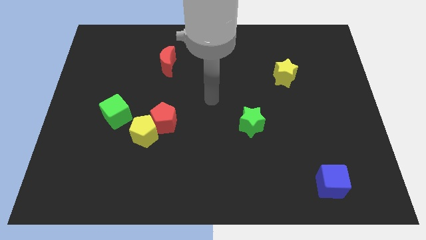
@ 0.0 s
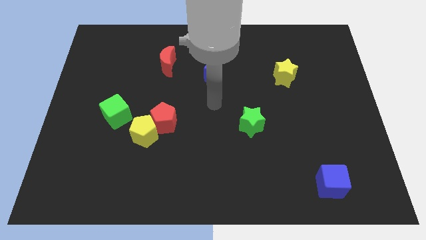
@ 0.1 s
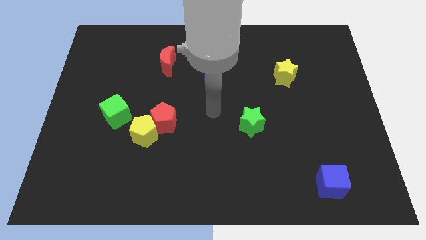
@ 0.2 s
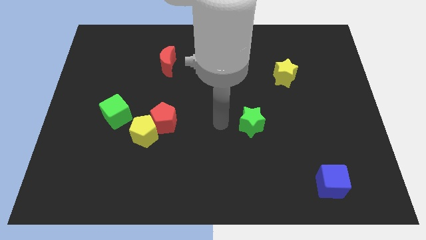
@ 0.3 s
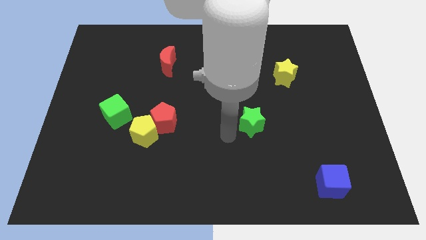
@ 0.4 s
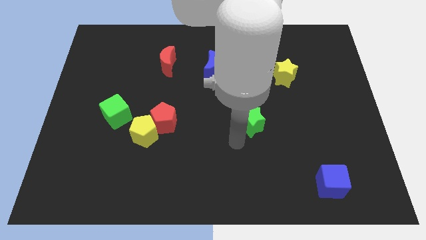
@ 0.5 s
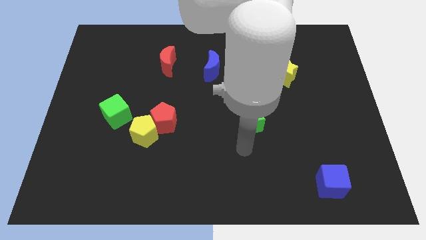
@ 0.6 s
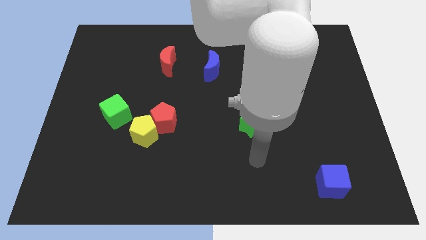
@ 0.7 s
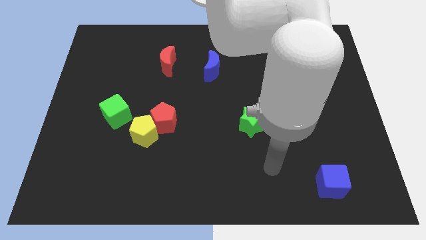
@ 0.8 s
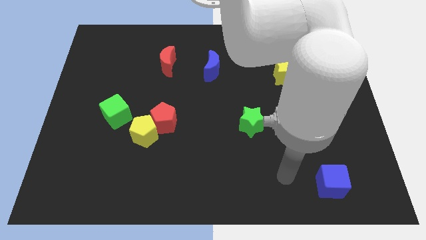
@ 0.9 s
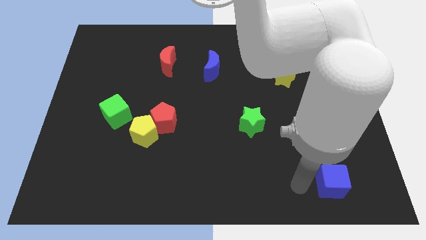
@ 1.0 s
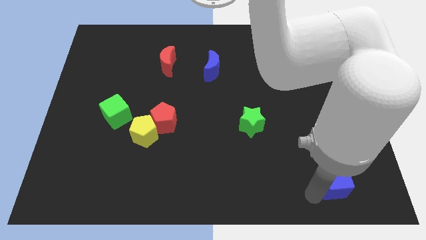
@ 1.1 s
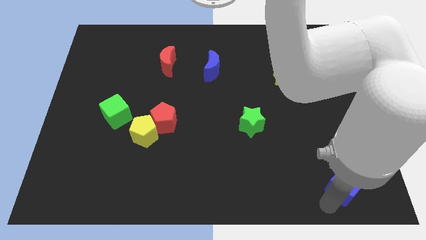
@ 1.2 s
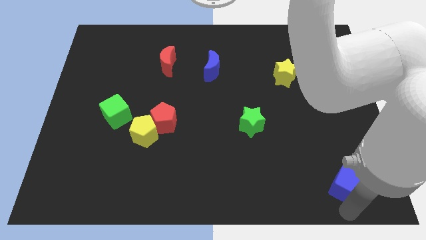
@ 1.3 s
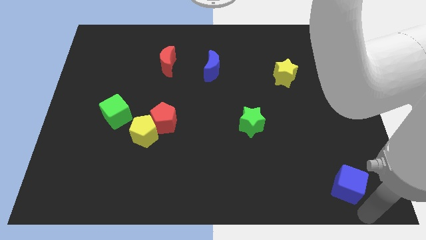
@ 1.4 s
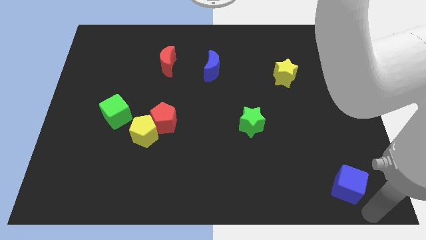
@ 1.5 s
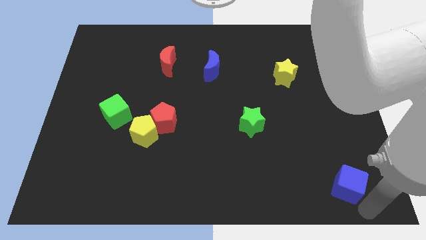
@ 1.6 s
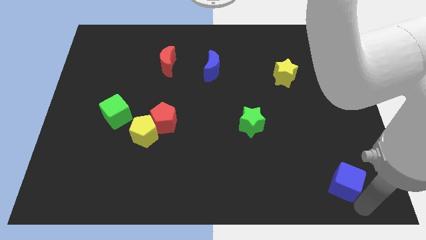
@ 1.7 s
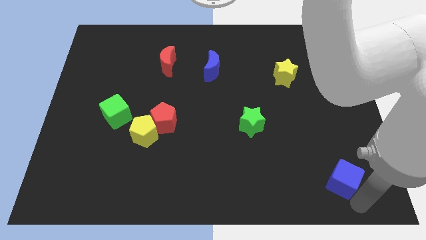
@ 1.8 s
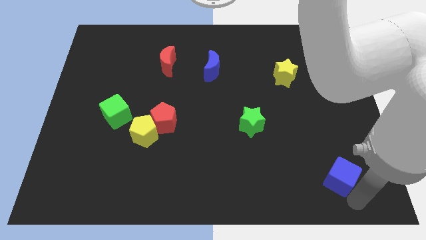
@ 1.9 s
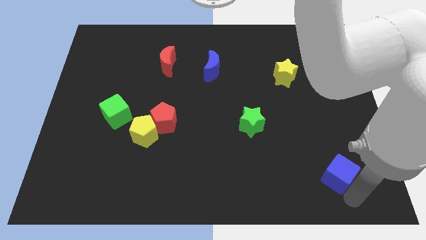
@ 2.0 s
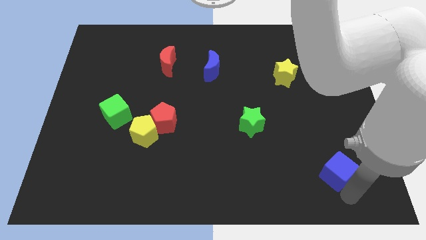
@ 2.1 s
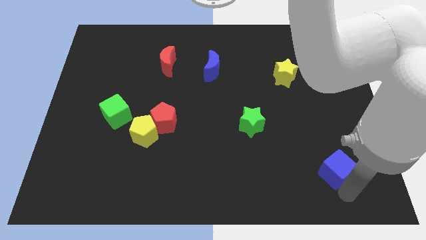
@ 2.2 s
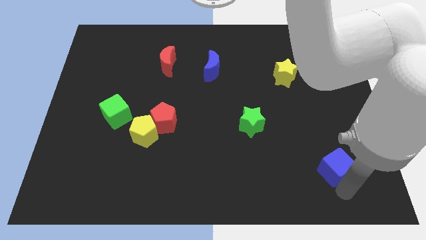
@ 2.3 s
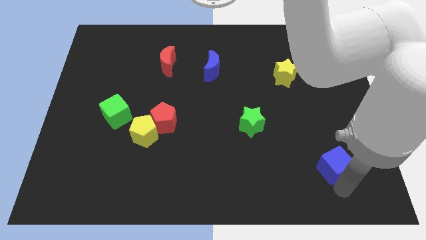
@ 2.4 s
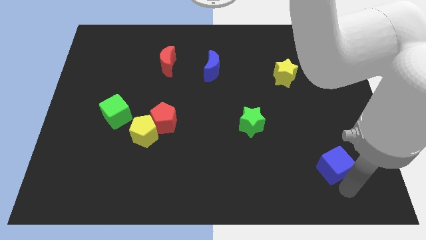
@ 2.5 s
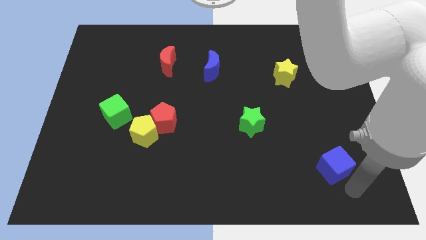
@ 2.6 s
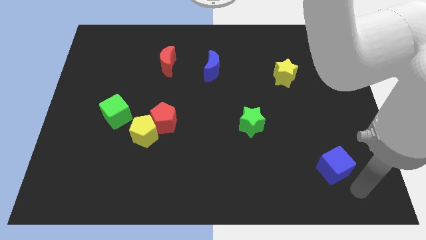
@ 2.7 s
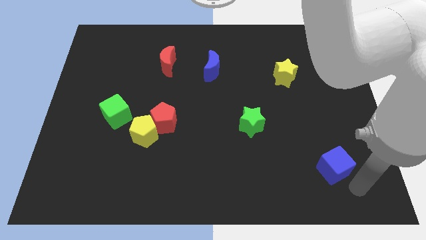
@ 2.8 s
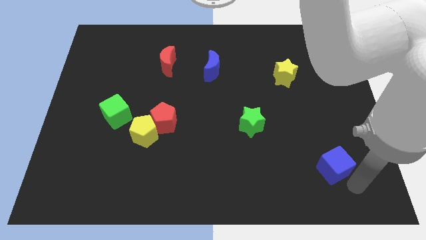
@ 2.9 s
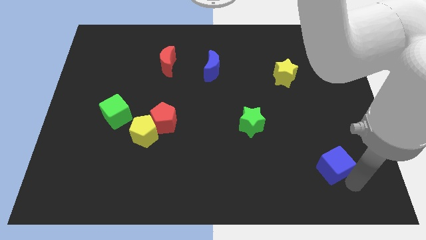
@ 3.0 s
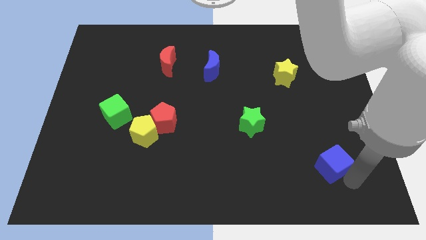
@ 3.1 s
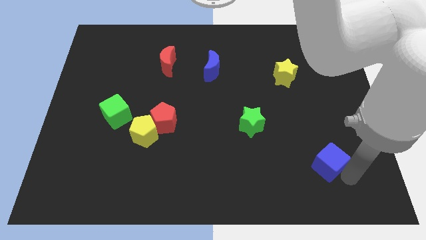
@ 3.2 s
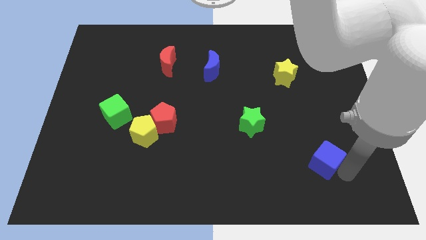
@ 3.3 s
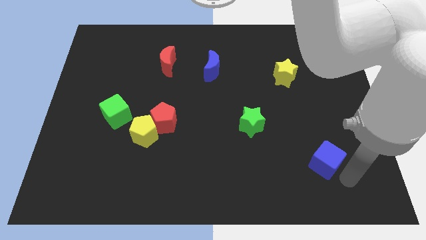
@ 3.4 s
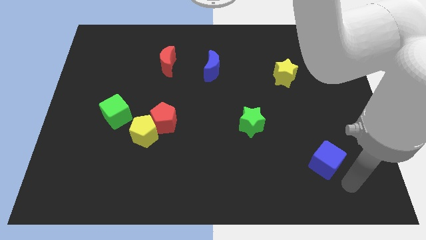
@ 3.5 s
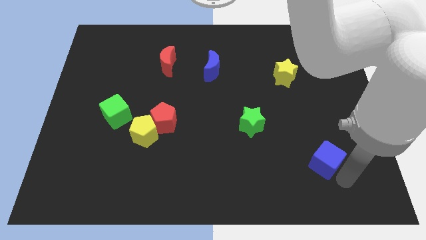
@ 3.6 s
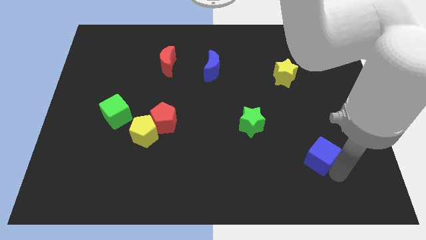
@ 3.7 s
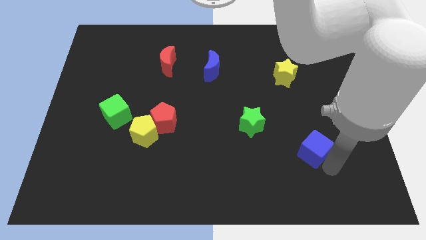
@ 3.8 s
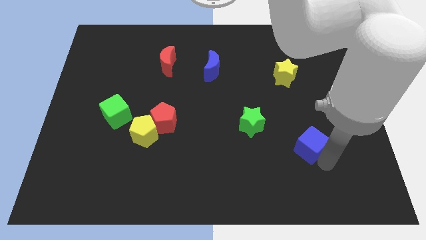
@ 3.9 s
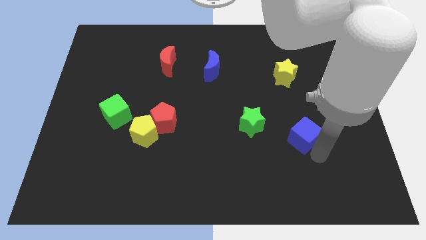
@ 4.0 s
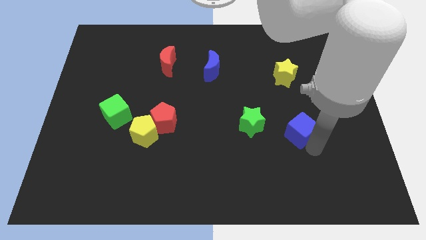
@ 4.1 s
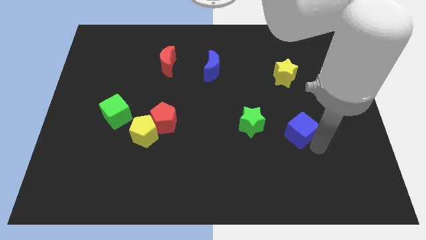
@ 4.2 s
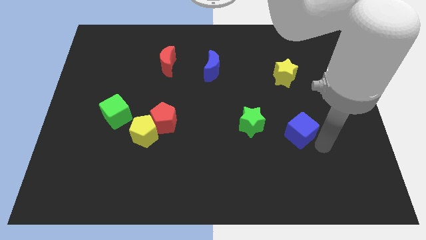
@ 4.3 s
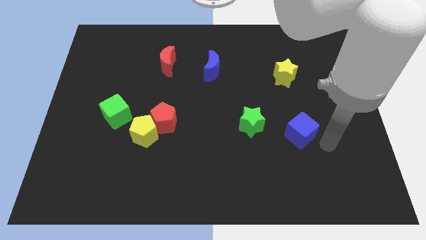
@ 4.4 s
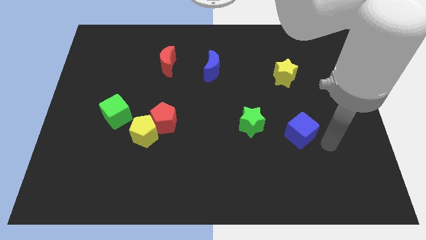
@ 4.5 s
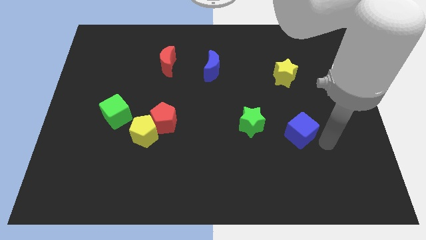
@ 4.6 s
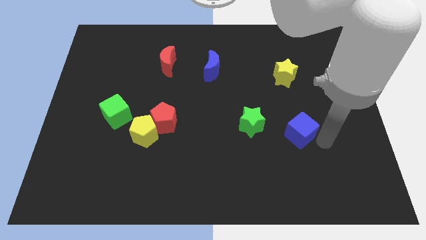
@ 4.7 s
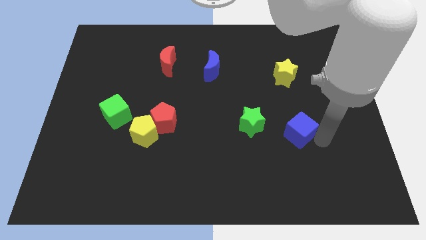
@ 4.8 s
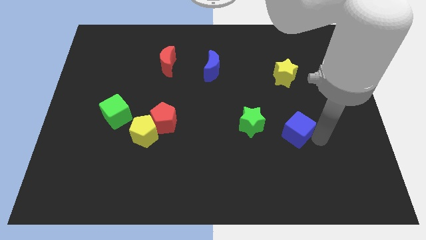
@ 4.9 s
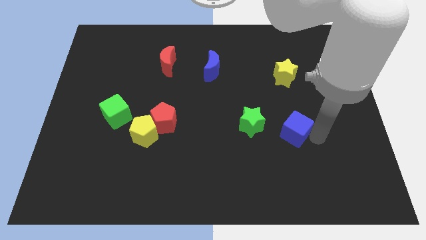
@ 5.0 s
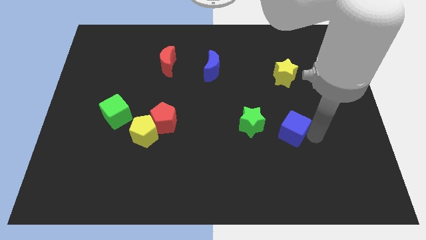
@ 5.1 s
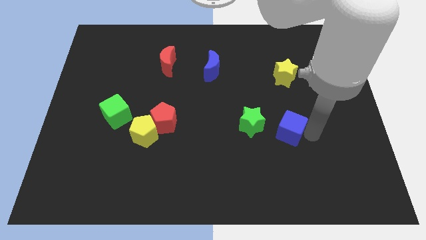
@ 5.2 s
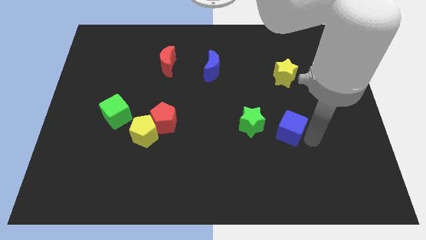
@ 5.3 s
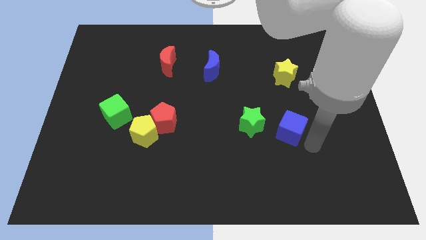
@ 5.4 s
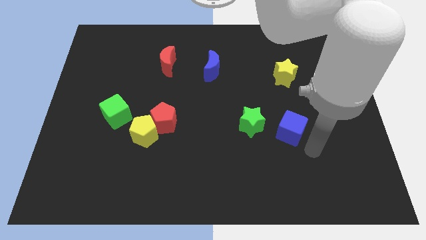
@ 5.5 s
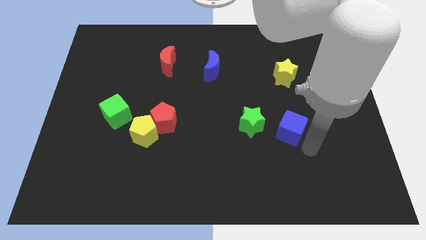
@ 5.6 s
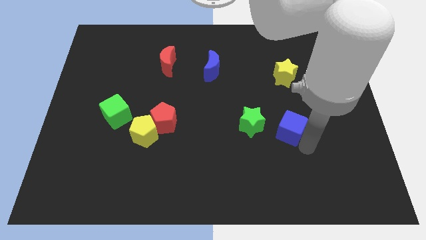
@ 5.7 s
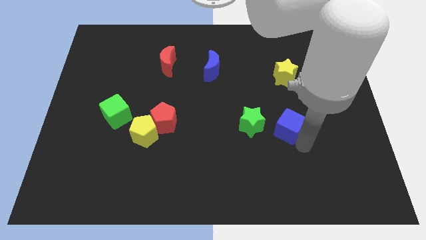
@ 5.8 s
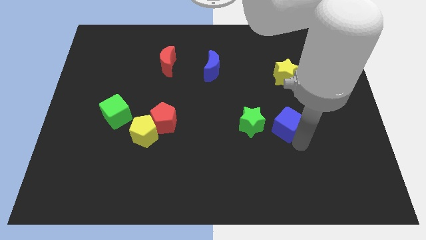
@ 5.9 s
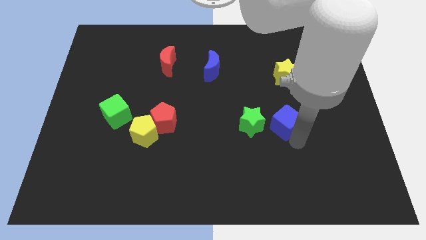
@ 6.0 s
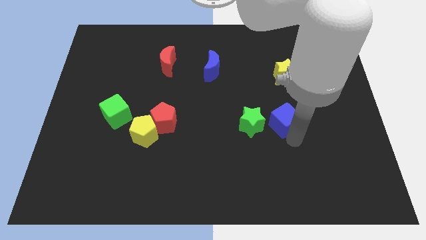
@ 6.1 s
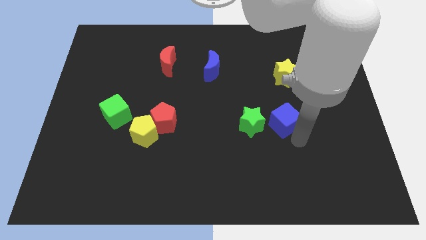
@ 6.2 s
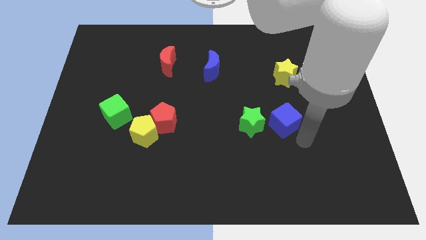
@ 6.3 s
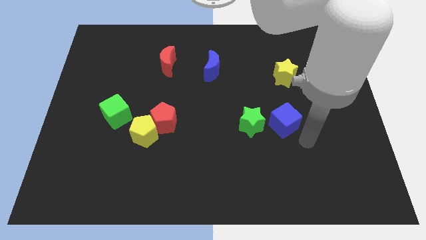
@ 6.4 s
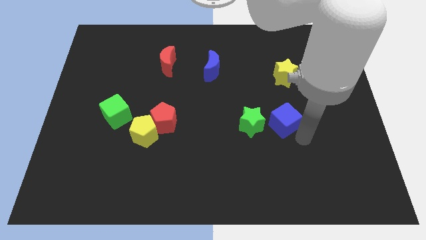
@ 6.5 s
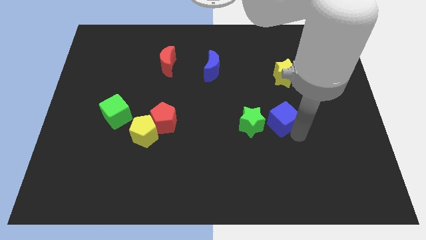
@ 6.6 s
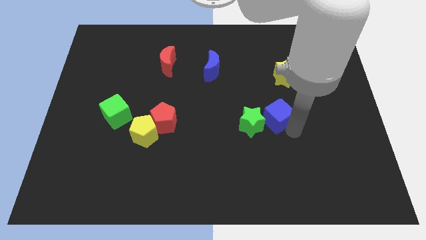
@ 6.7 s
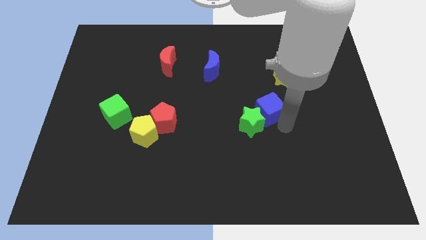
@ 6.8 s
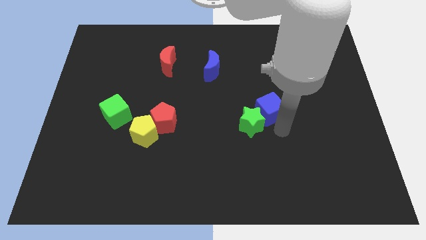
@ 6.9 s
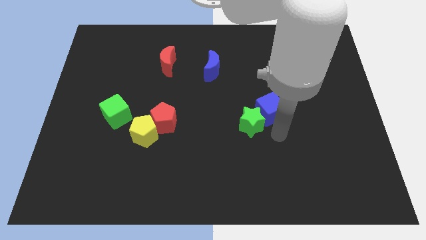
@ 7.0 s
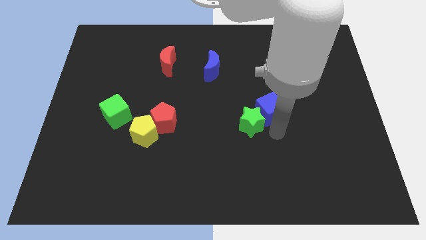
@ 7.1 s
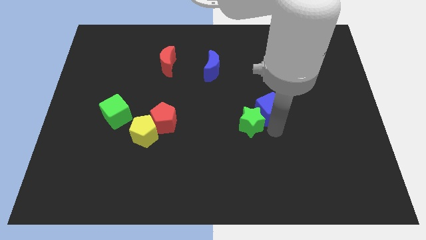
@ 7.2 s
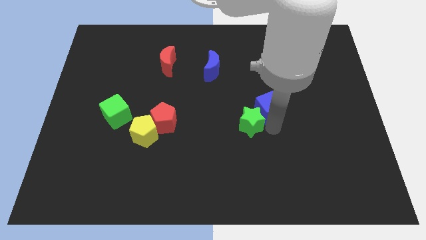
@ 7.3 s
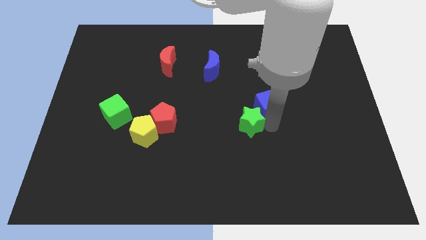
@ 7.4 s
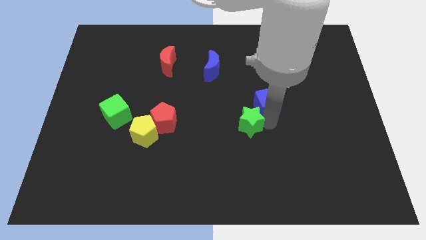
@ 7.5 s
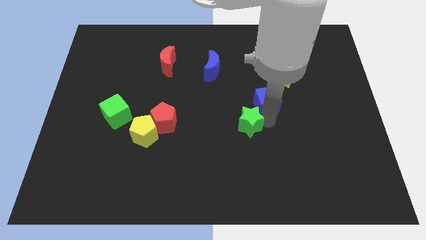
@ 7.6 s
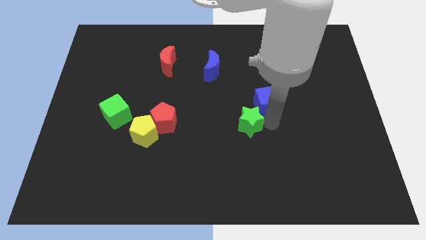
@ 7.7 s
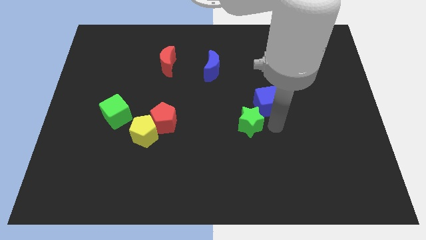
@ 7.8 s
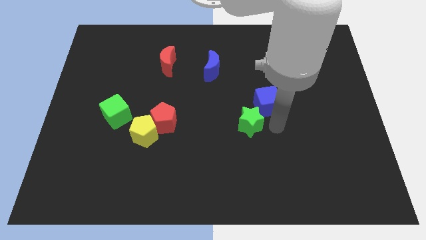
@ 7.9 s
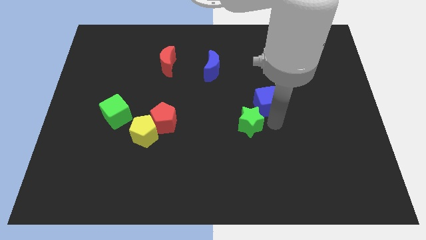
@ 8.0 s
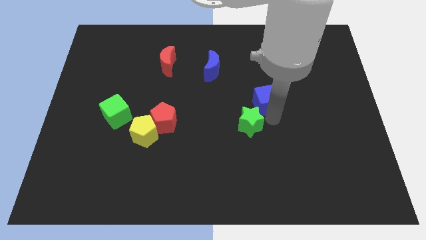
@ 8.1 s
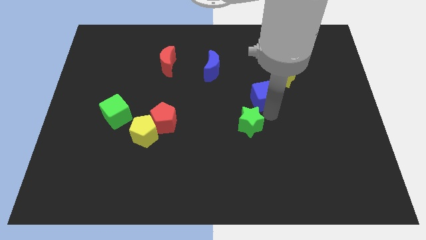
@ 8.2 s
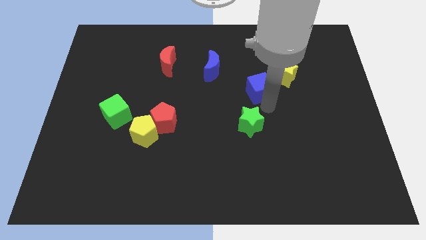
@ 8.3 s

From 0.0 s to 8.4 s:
move the blue cube to the left side of the yellow star

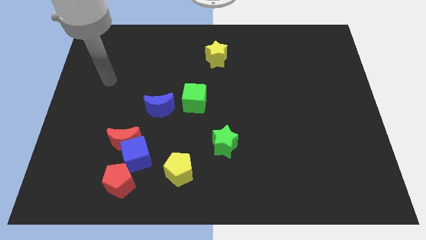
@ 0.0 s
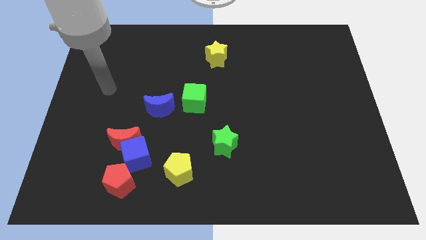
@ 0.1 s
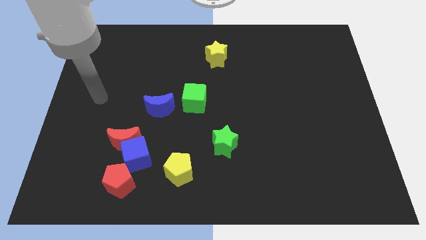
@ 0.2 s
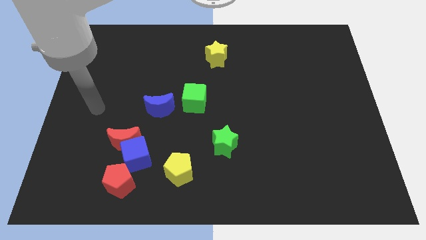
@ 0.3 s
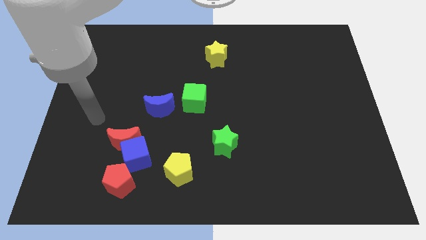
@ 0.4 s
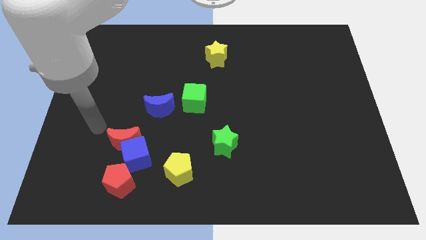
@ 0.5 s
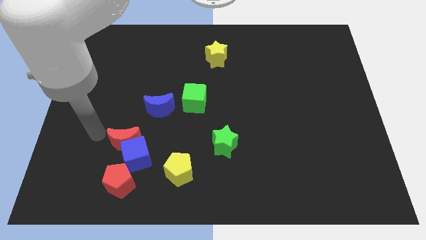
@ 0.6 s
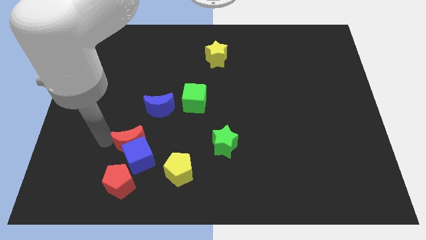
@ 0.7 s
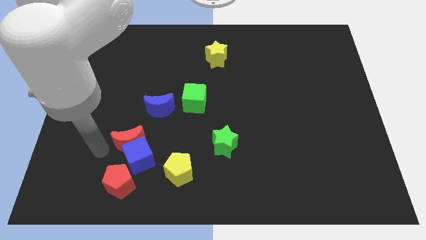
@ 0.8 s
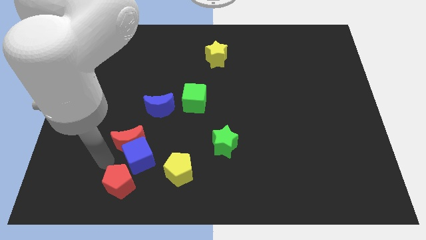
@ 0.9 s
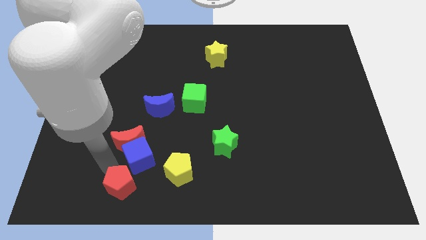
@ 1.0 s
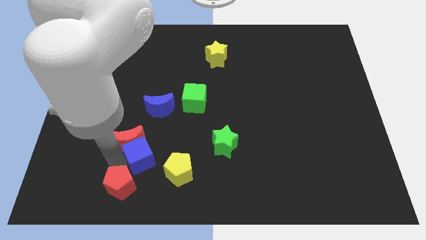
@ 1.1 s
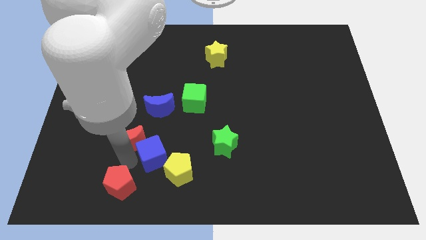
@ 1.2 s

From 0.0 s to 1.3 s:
slide the blue cube left of the green star
